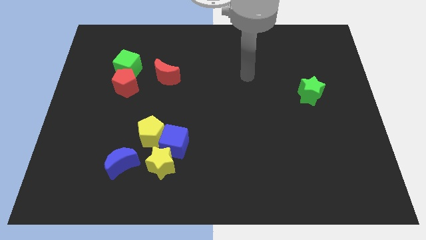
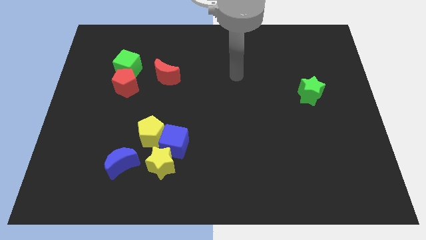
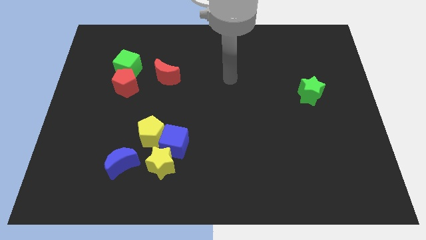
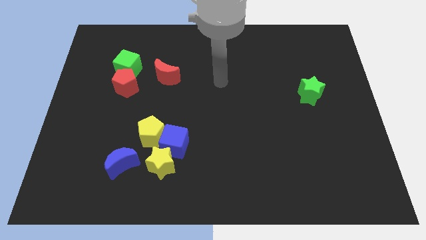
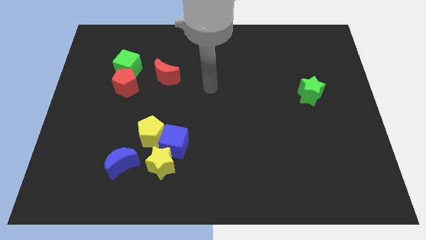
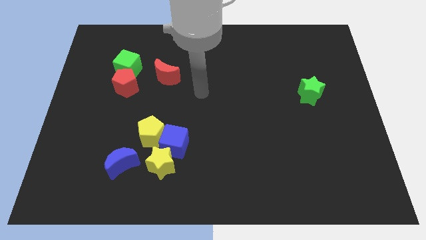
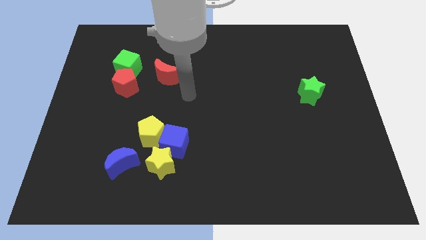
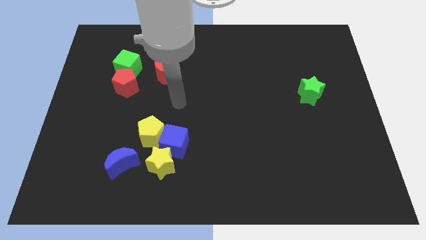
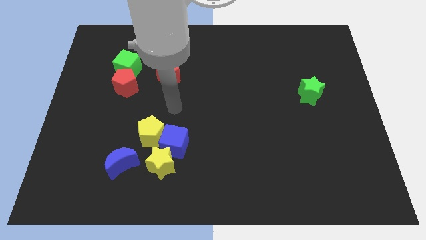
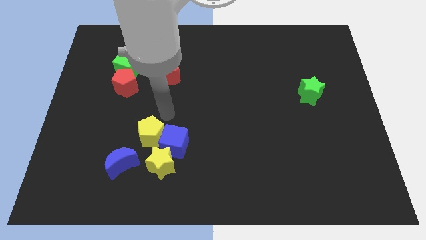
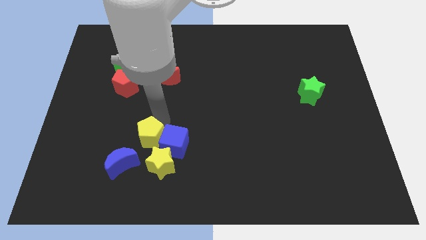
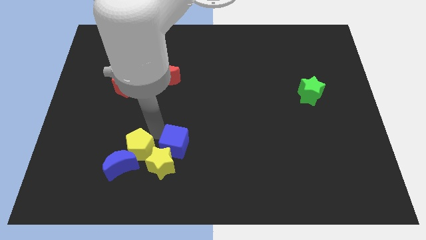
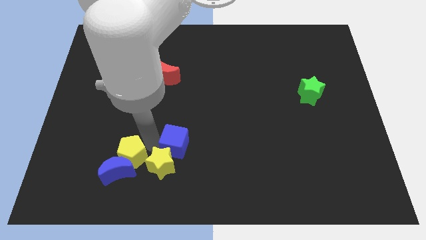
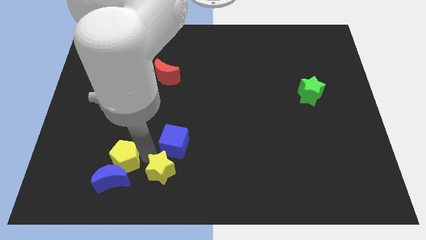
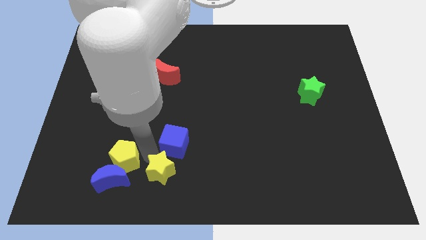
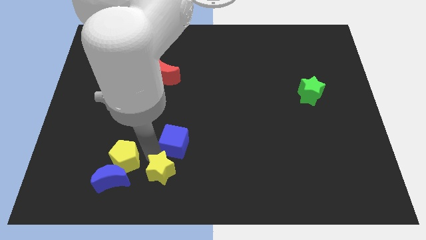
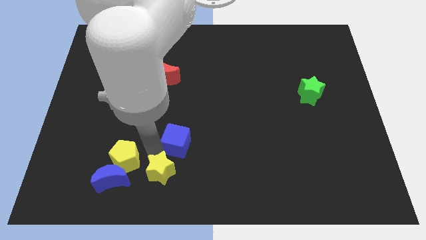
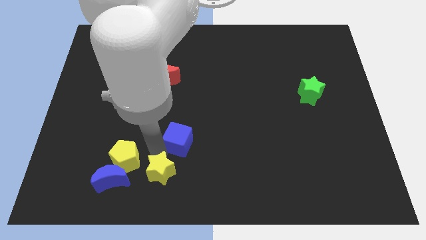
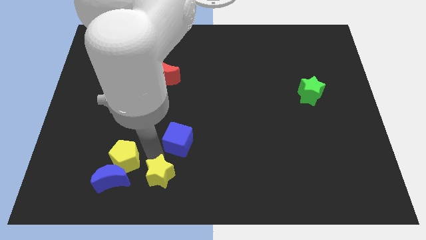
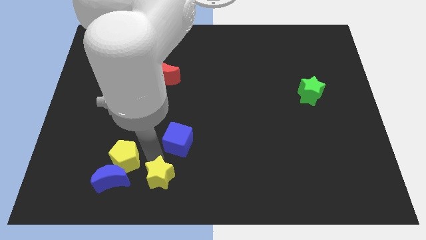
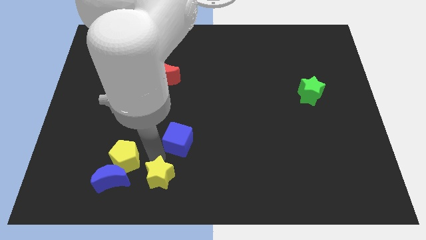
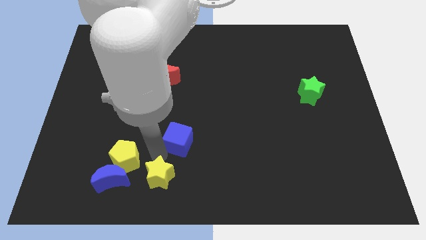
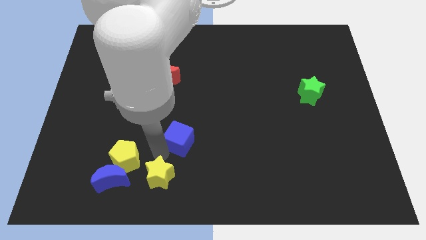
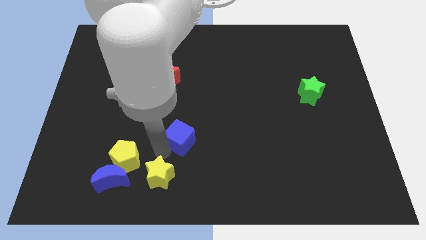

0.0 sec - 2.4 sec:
move the blue cube away from the yellow pentagon and yellow star

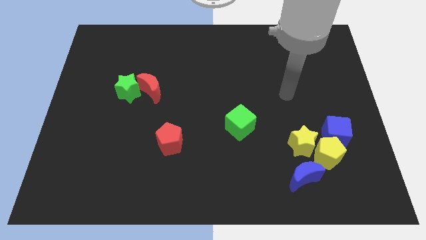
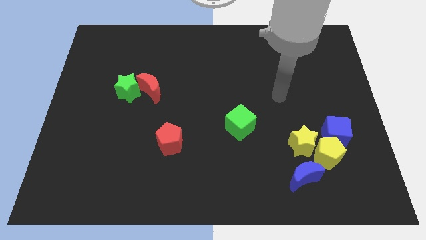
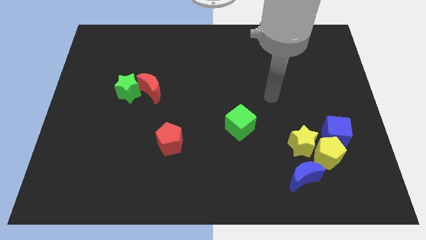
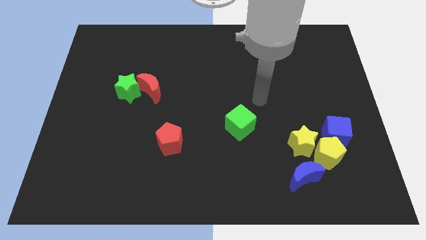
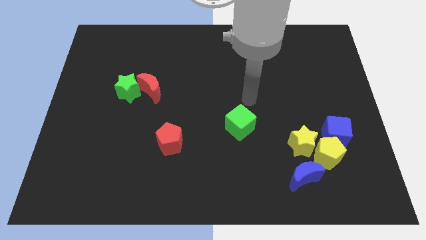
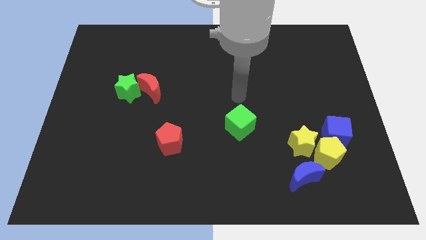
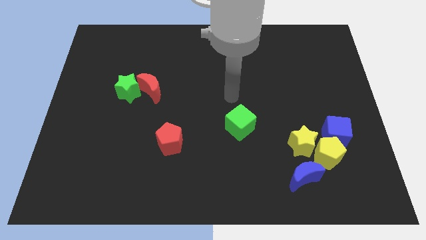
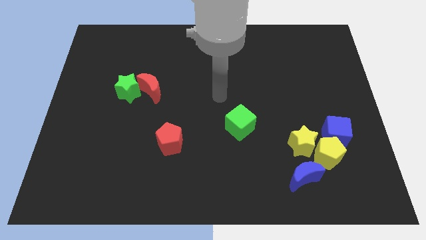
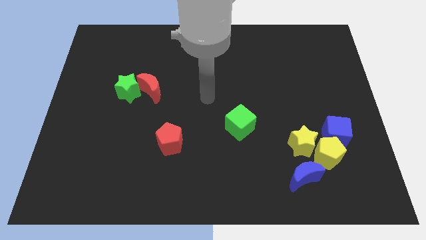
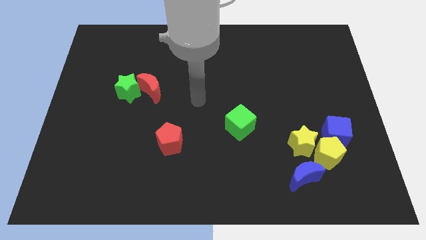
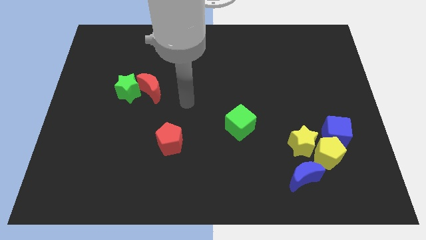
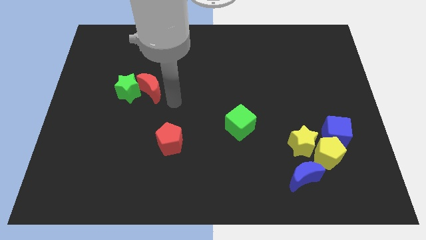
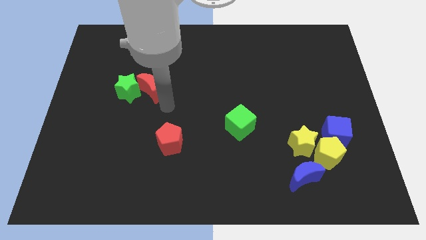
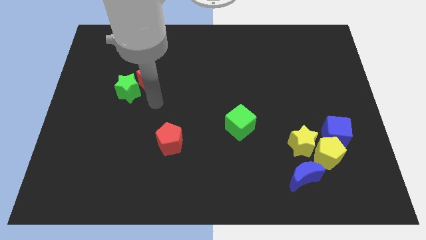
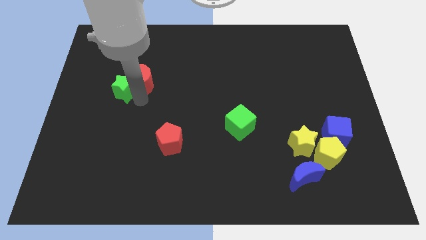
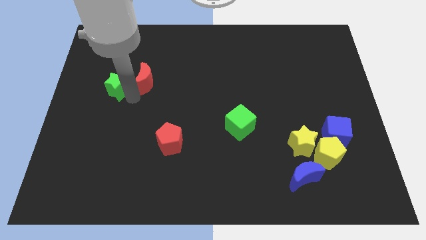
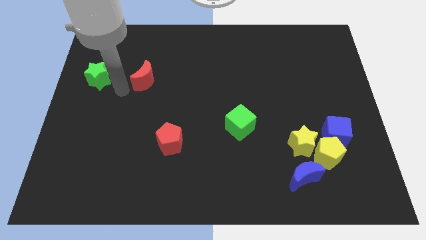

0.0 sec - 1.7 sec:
separate the red moon from the green star

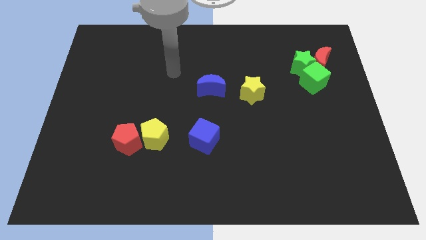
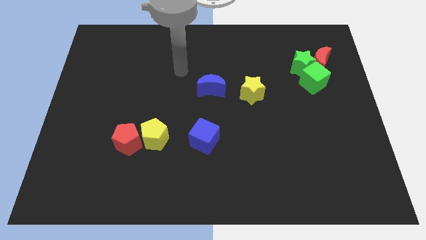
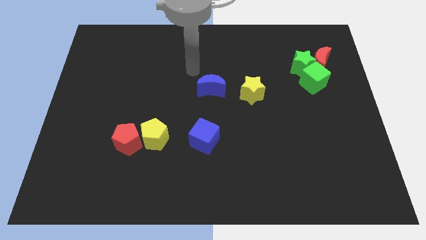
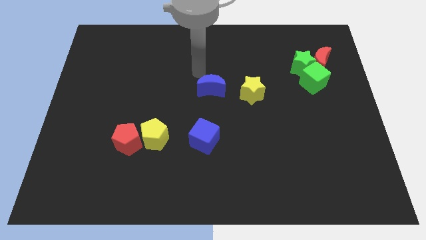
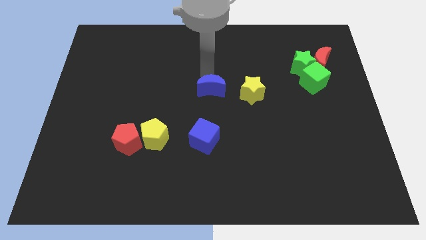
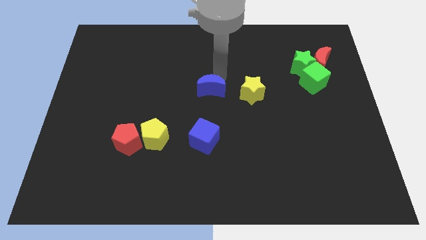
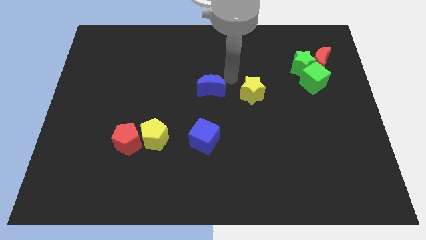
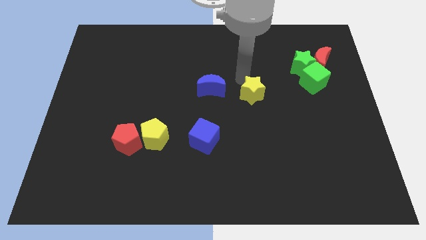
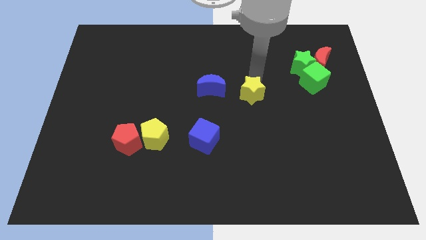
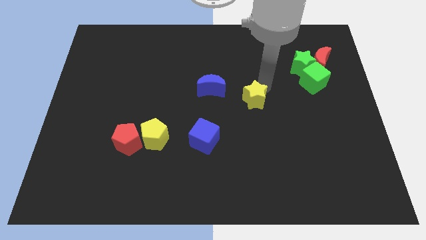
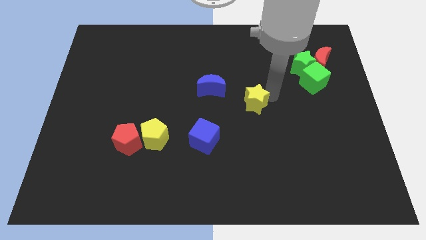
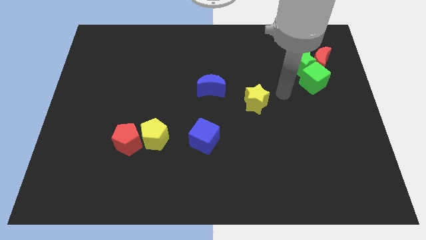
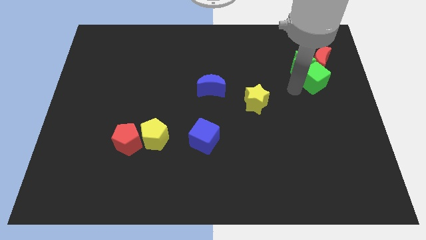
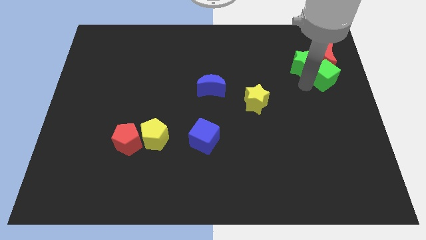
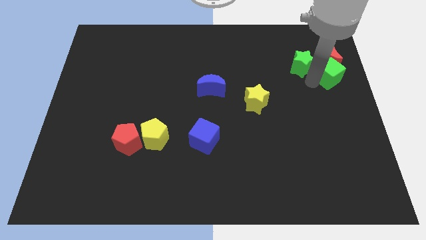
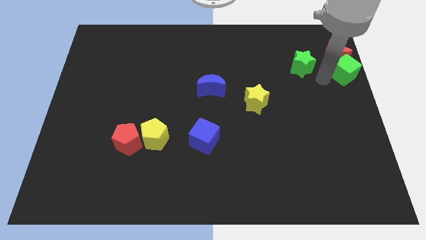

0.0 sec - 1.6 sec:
move the green star away from the red moon and green cube

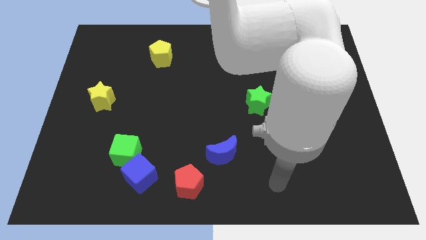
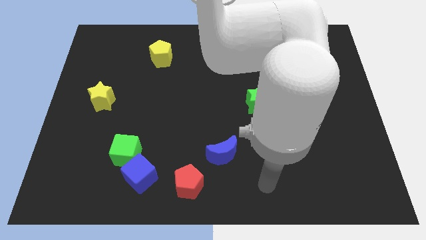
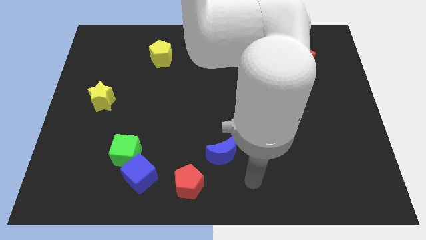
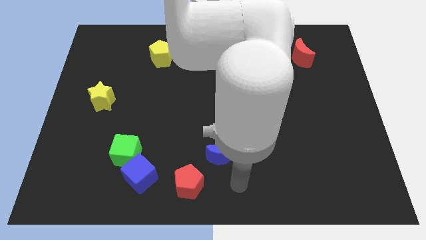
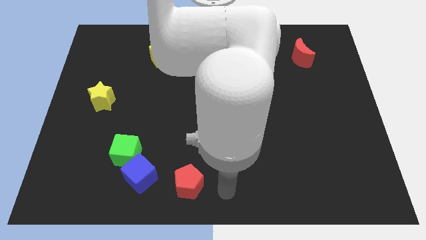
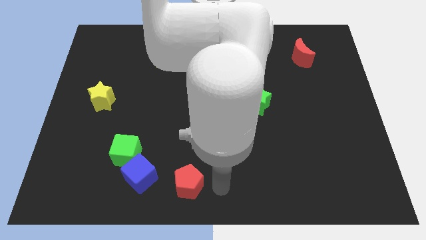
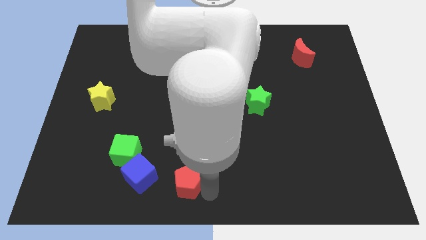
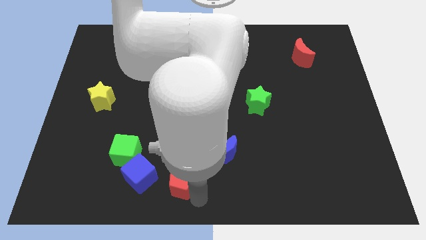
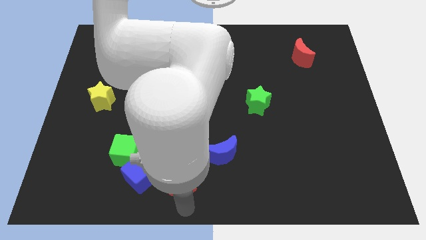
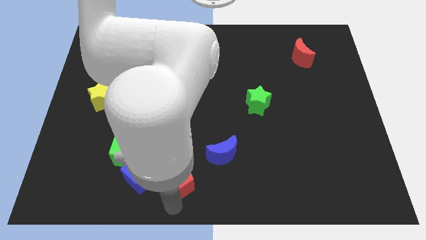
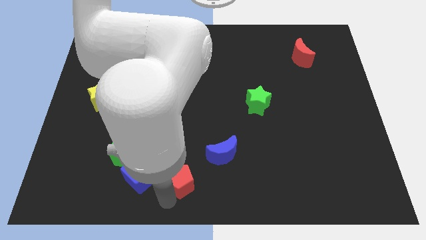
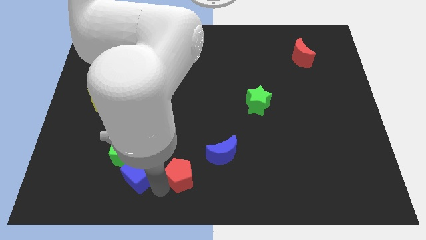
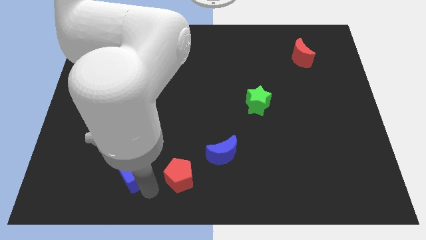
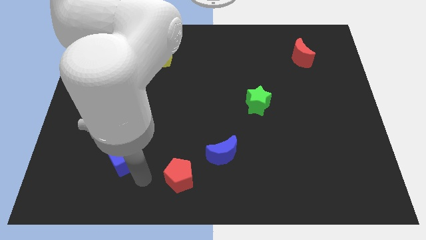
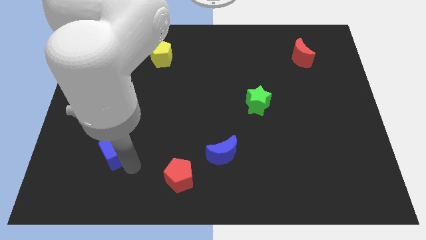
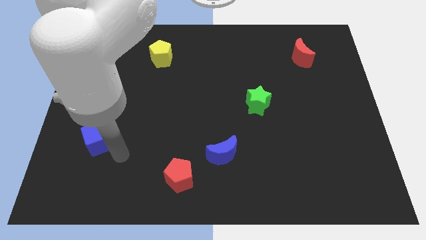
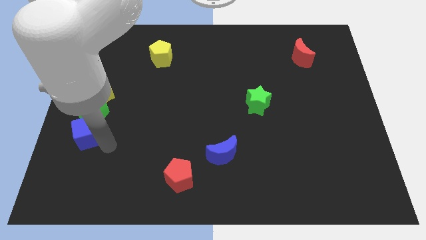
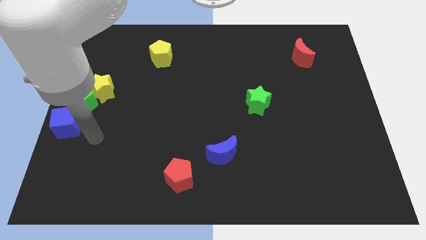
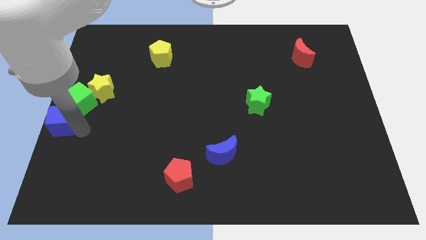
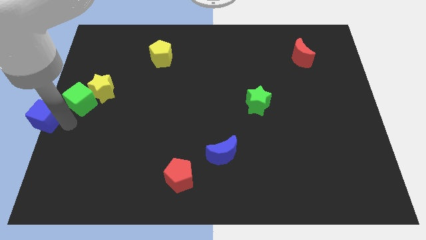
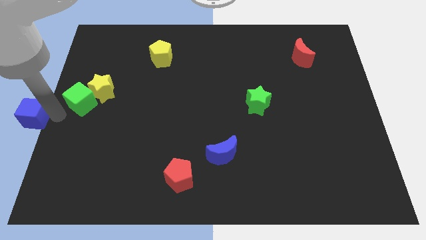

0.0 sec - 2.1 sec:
separate the green cube from the blue cube

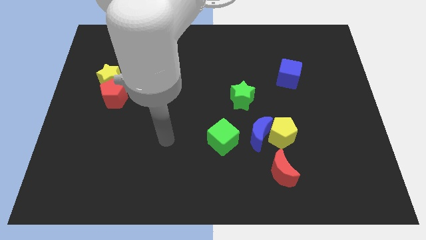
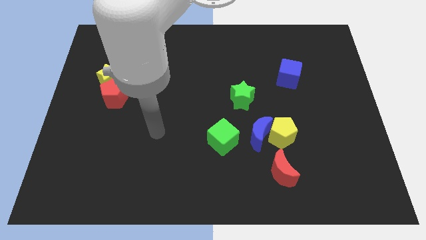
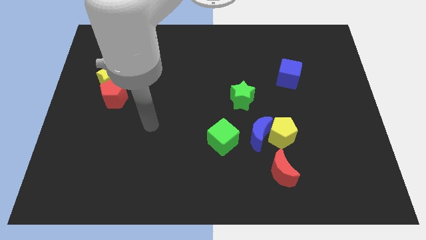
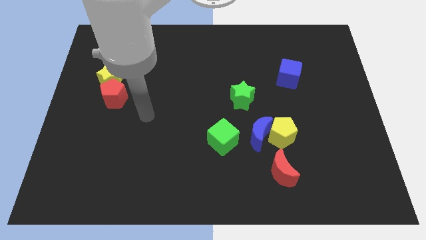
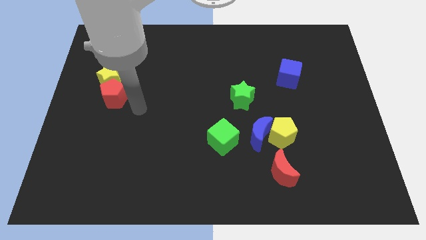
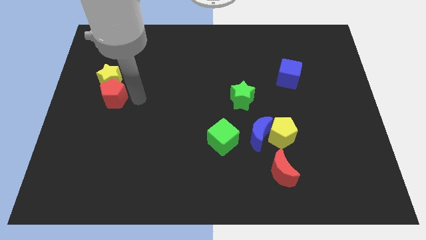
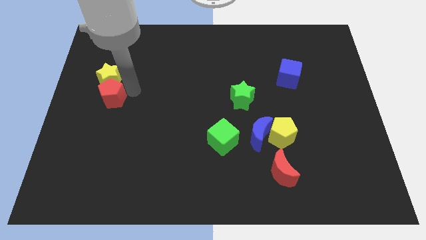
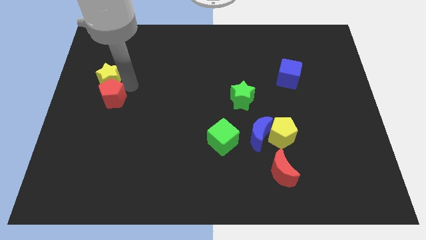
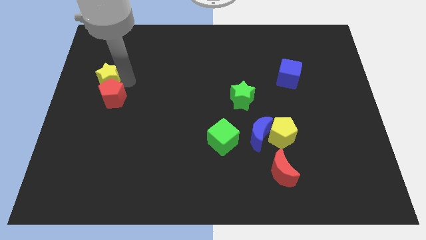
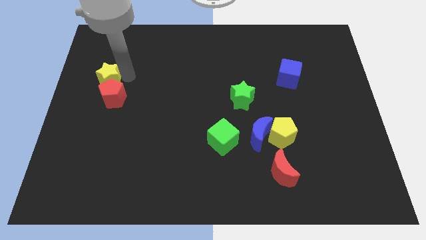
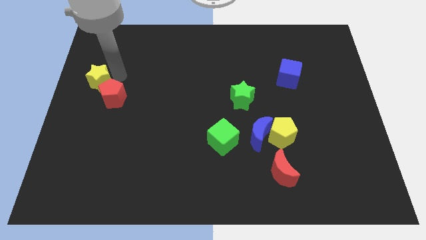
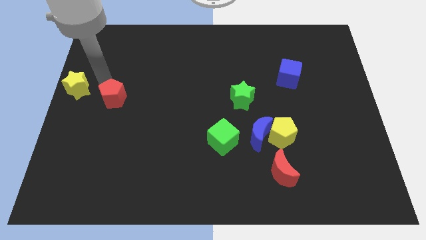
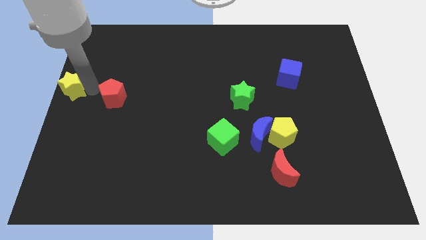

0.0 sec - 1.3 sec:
separate the red pentagon from the yellow star

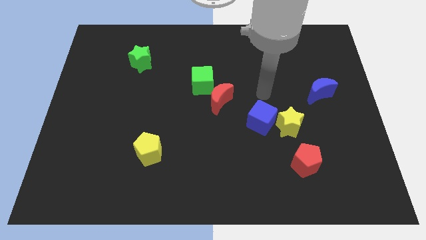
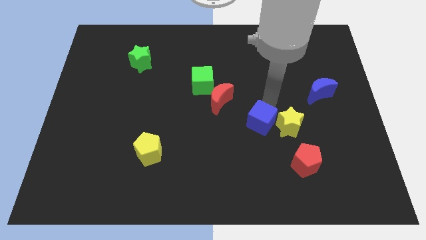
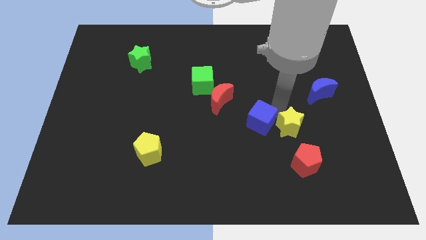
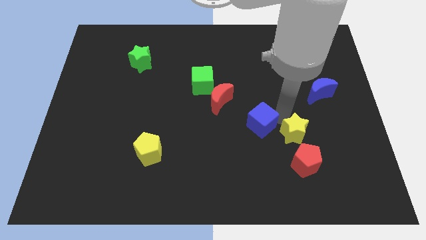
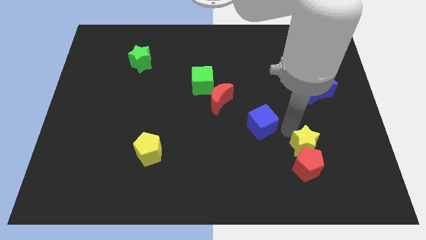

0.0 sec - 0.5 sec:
move the blue cube away from the yellow star
